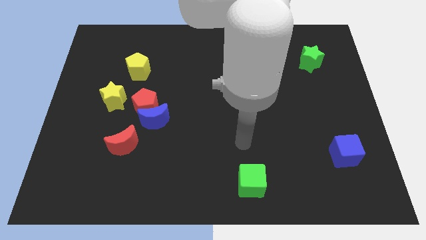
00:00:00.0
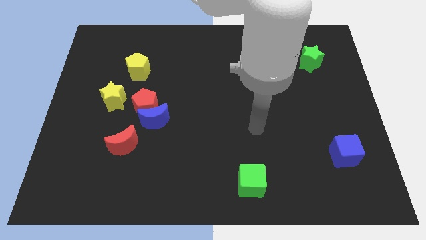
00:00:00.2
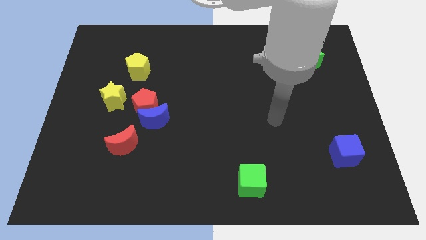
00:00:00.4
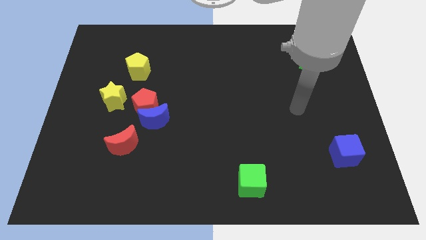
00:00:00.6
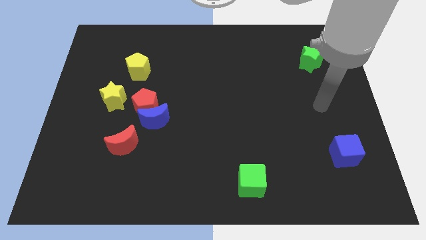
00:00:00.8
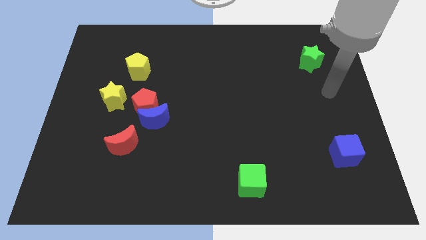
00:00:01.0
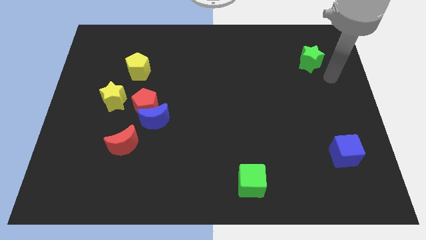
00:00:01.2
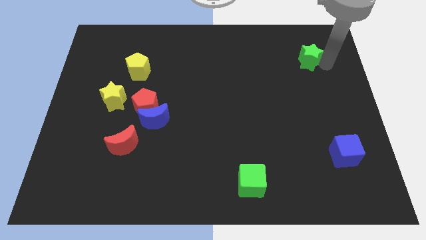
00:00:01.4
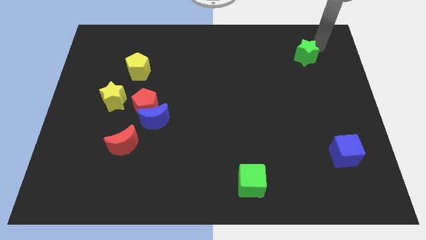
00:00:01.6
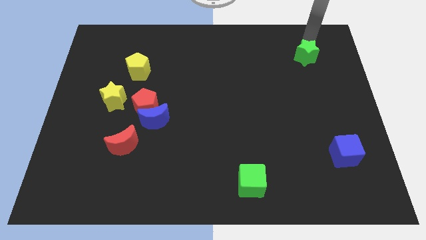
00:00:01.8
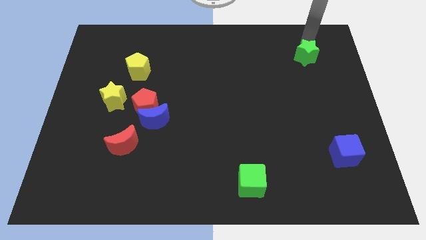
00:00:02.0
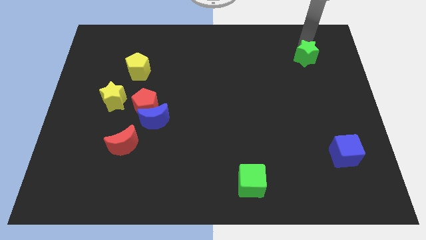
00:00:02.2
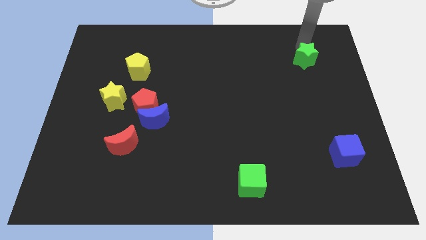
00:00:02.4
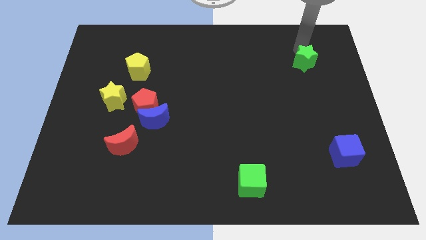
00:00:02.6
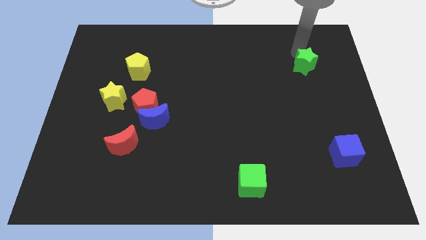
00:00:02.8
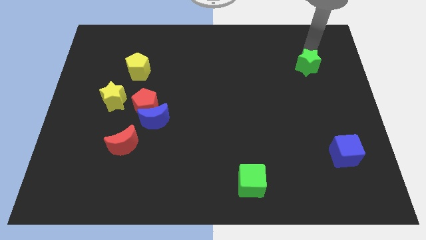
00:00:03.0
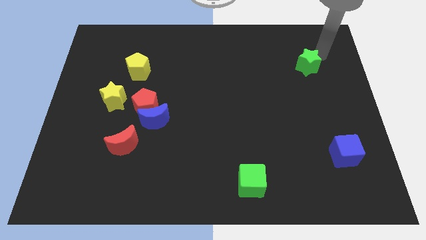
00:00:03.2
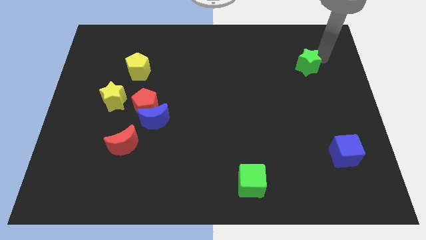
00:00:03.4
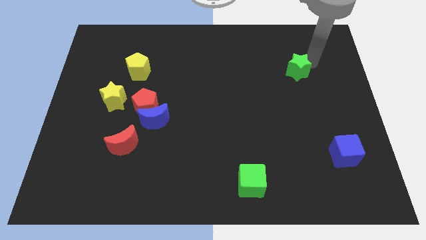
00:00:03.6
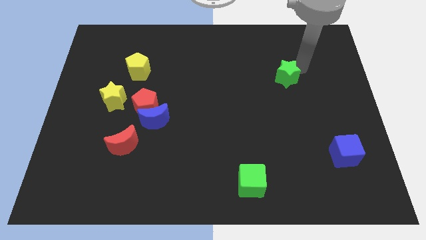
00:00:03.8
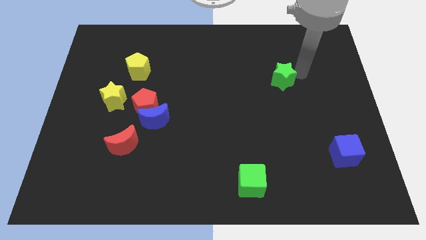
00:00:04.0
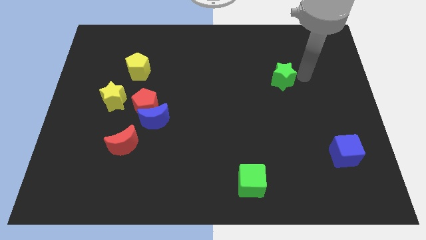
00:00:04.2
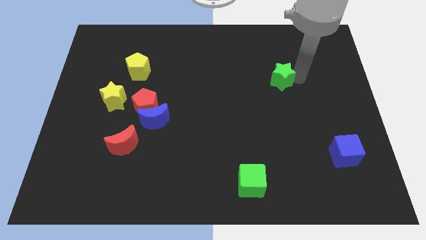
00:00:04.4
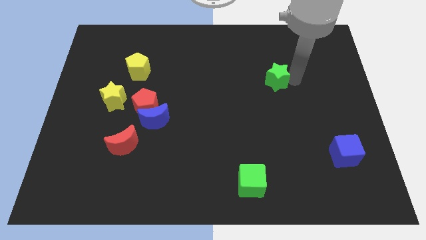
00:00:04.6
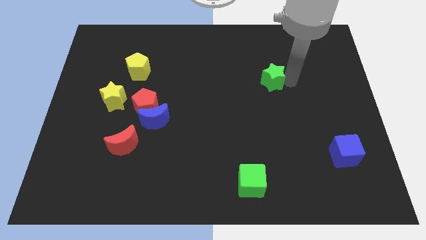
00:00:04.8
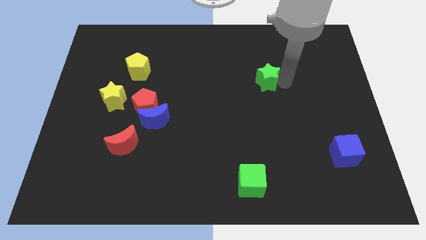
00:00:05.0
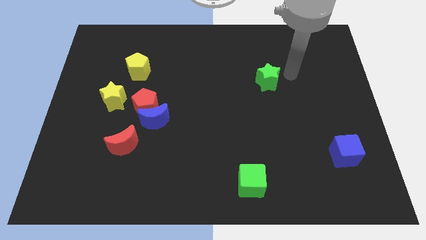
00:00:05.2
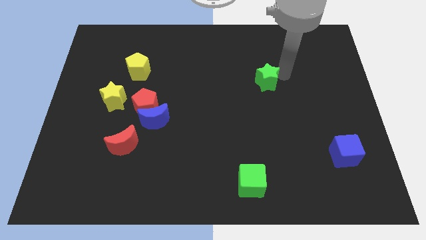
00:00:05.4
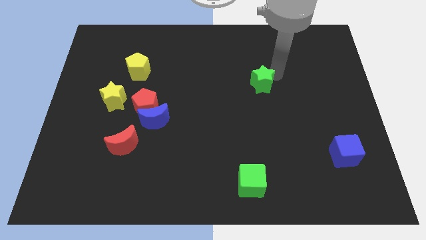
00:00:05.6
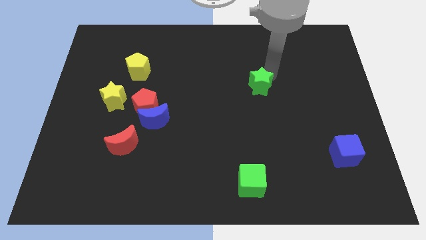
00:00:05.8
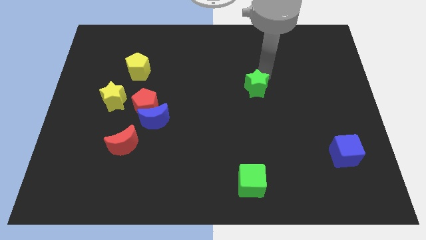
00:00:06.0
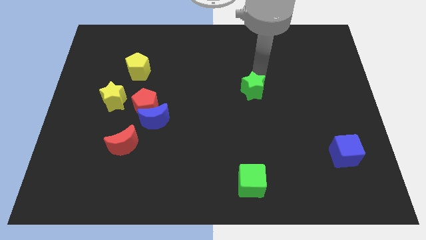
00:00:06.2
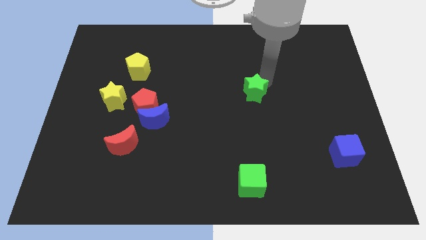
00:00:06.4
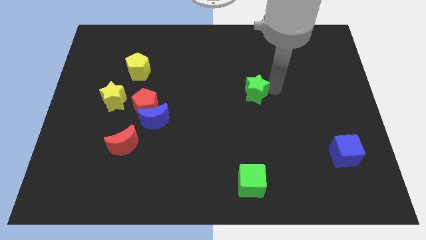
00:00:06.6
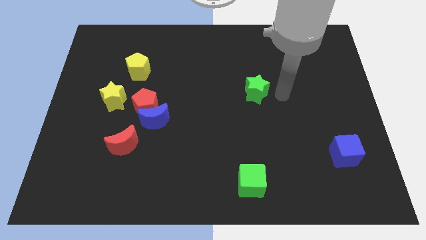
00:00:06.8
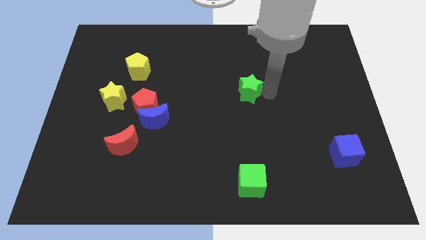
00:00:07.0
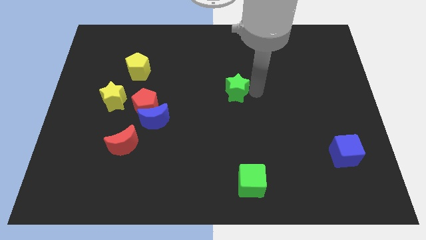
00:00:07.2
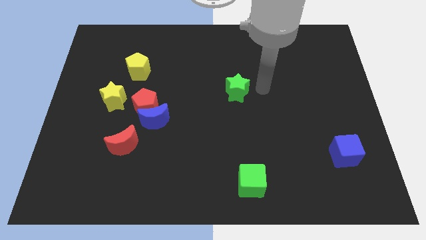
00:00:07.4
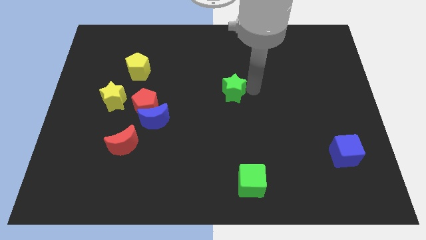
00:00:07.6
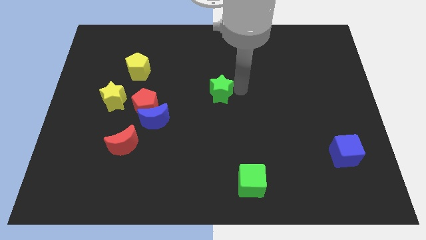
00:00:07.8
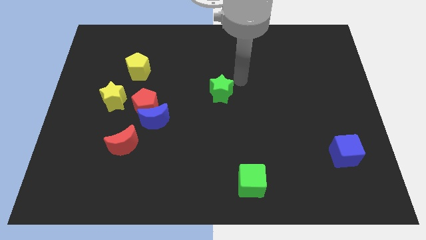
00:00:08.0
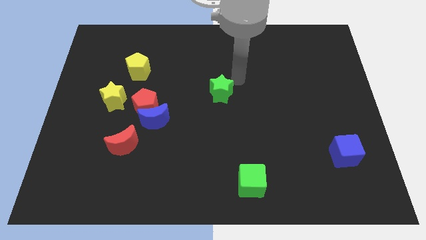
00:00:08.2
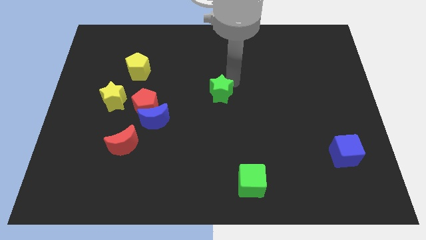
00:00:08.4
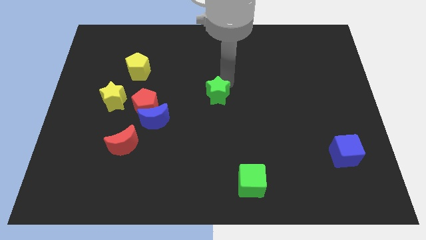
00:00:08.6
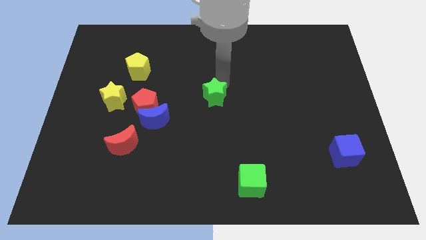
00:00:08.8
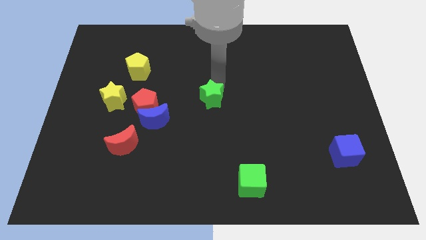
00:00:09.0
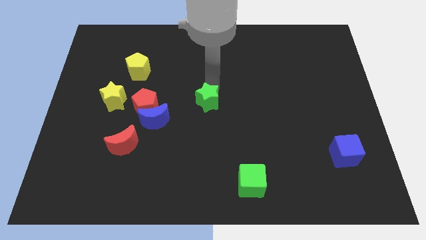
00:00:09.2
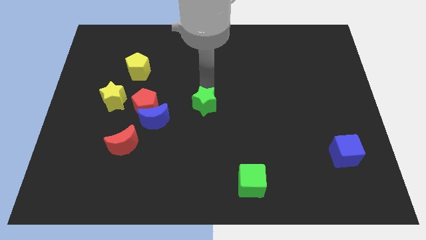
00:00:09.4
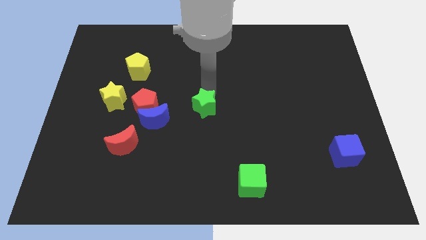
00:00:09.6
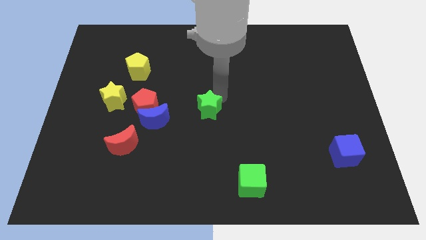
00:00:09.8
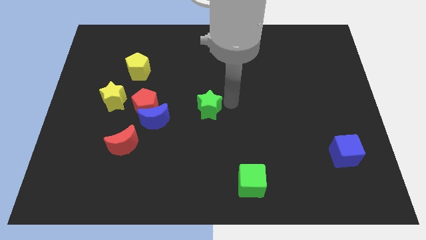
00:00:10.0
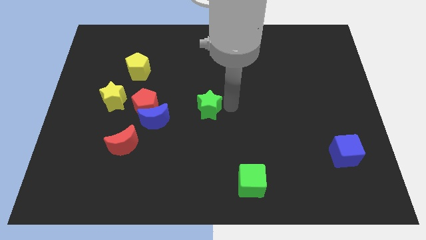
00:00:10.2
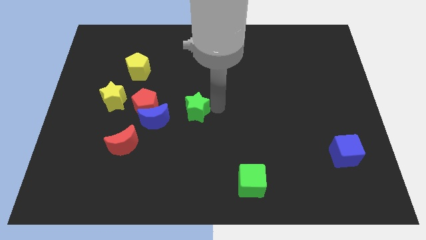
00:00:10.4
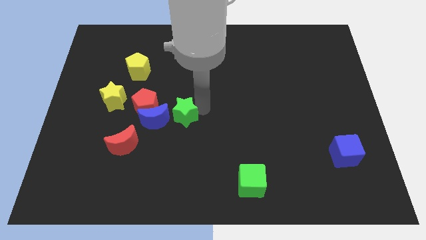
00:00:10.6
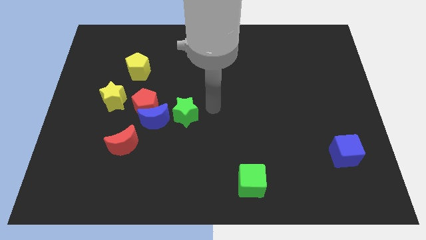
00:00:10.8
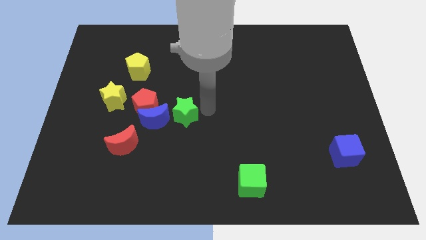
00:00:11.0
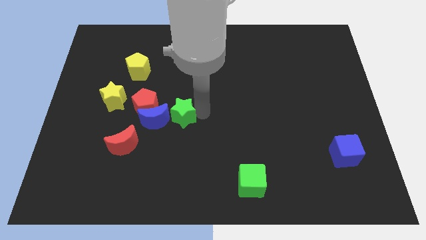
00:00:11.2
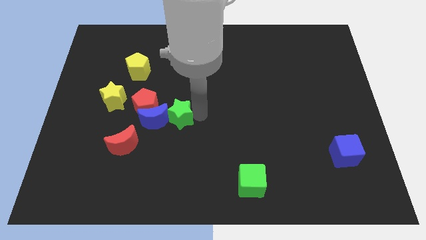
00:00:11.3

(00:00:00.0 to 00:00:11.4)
put the green star towards the blue moon

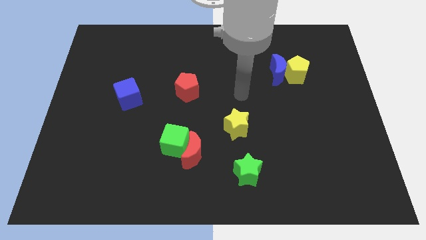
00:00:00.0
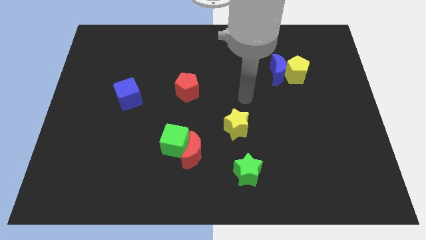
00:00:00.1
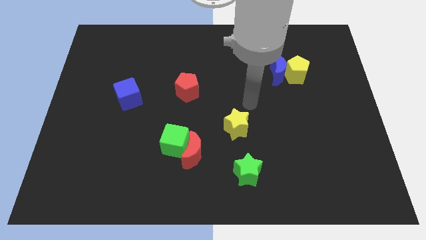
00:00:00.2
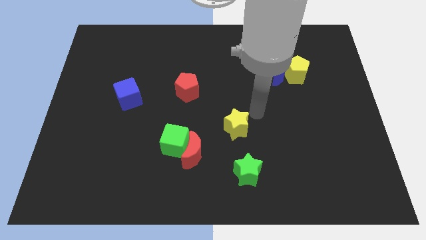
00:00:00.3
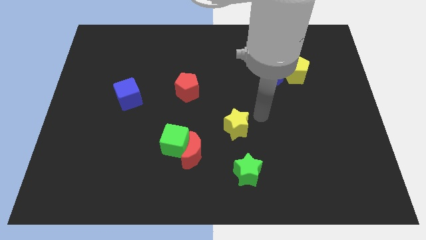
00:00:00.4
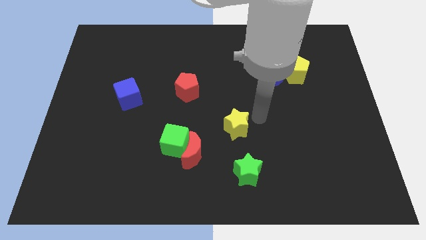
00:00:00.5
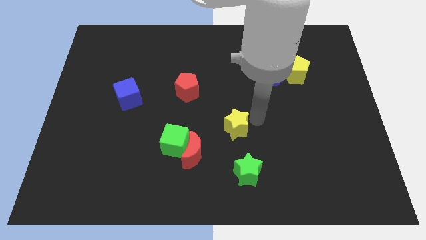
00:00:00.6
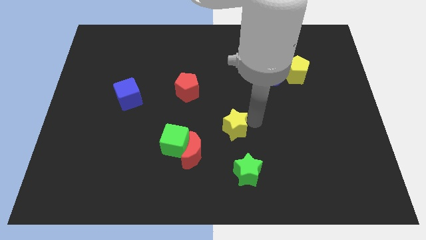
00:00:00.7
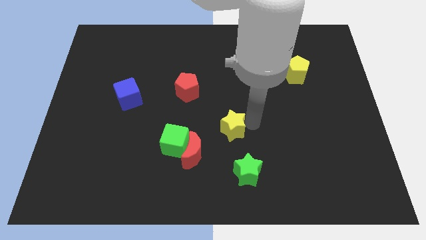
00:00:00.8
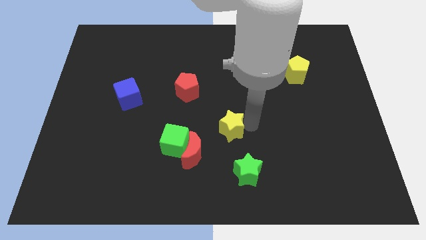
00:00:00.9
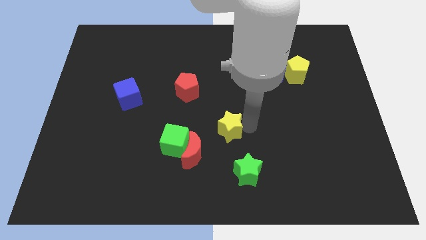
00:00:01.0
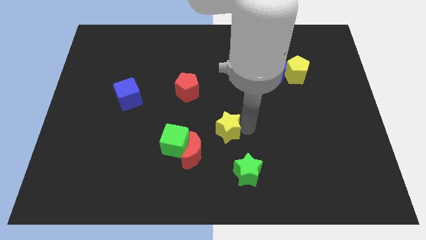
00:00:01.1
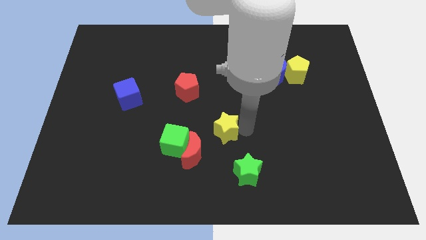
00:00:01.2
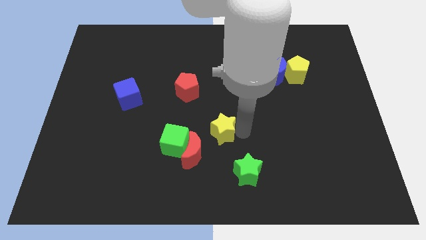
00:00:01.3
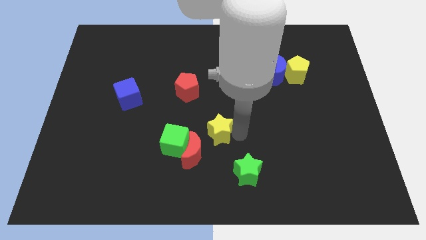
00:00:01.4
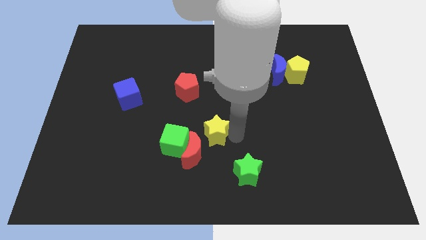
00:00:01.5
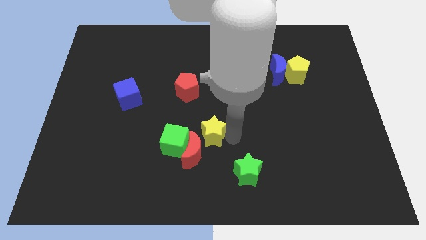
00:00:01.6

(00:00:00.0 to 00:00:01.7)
push the yellow star to the red moon

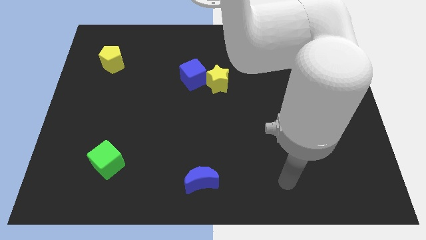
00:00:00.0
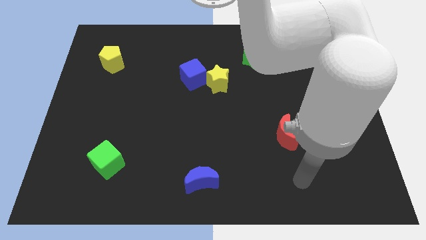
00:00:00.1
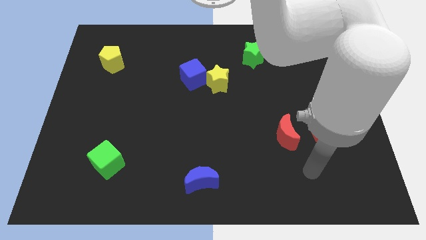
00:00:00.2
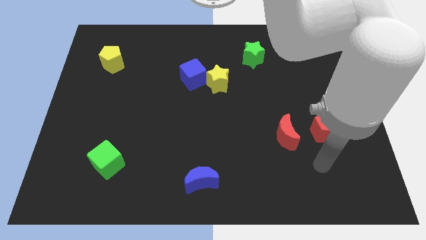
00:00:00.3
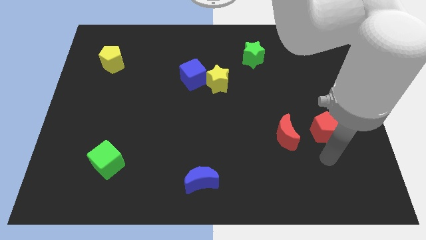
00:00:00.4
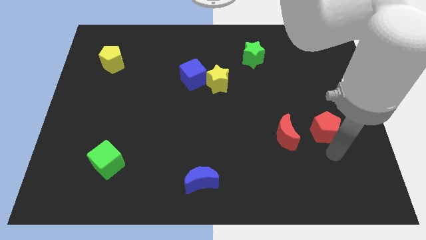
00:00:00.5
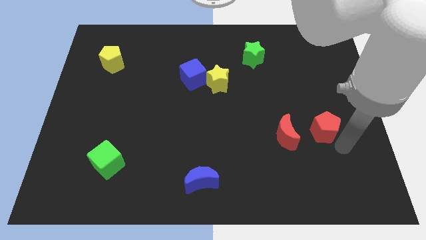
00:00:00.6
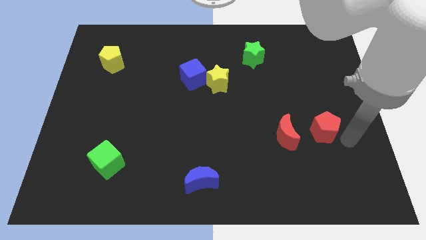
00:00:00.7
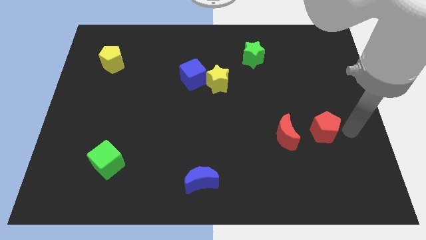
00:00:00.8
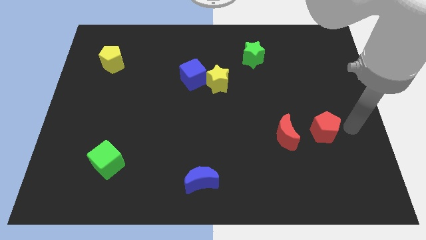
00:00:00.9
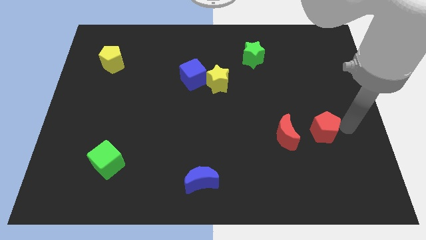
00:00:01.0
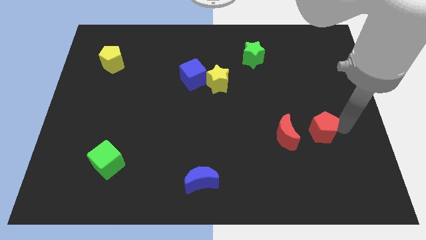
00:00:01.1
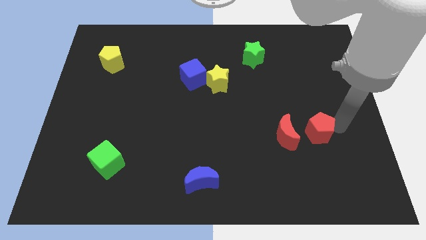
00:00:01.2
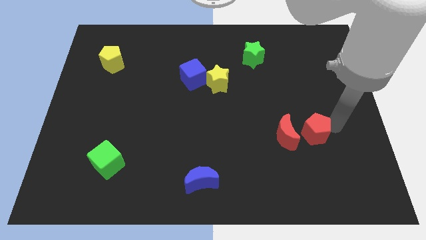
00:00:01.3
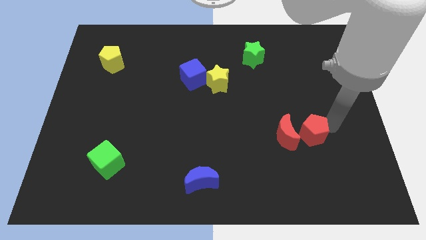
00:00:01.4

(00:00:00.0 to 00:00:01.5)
move the red pentagon next to the red moon
